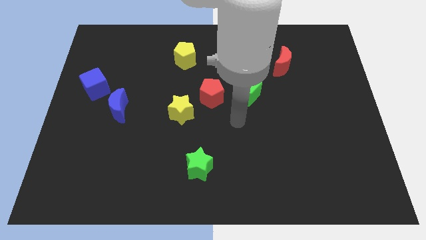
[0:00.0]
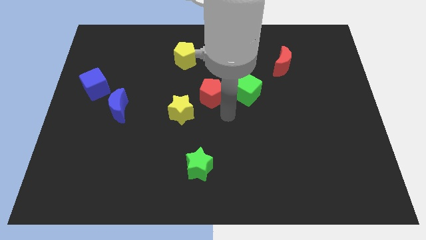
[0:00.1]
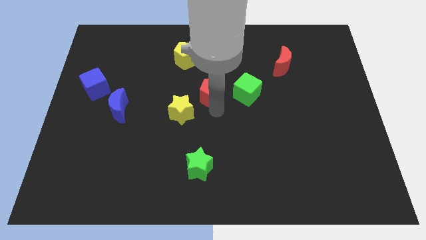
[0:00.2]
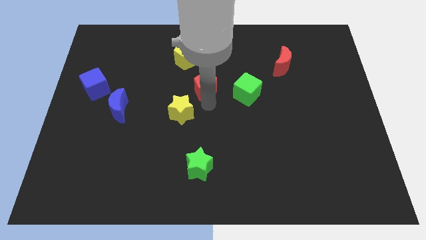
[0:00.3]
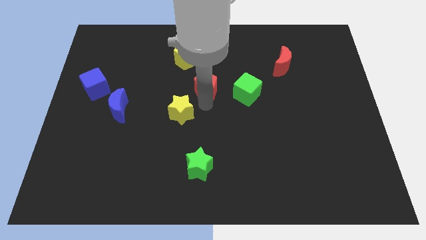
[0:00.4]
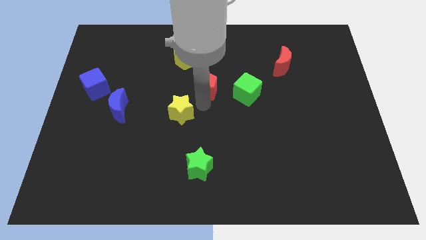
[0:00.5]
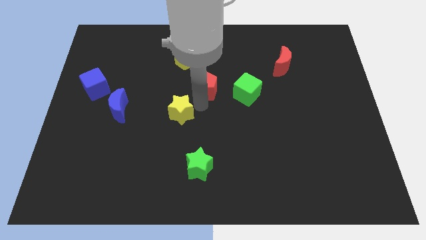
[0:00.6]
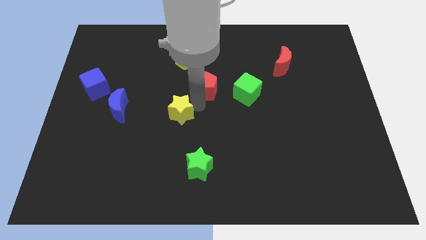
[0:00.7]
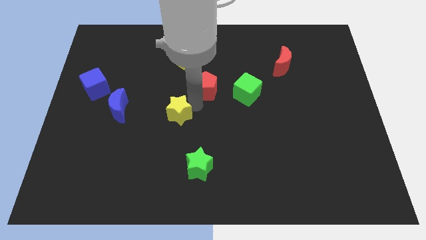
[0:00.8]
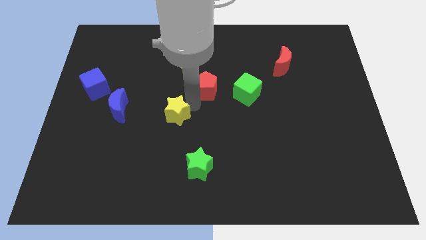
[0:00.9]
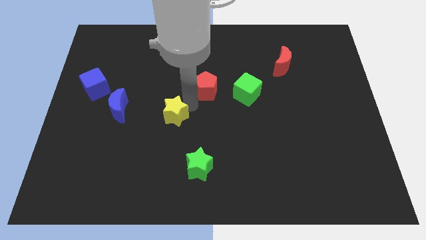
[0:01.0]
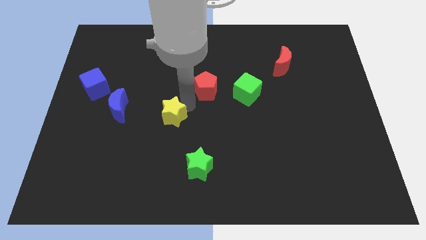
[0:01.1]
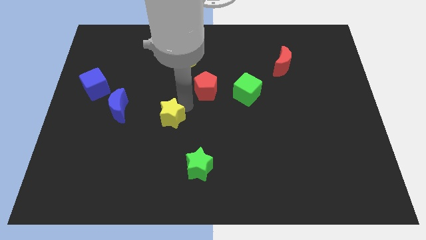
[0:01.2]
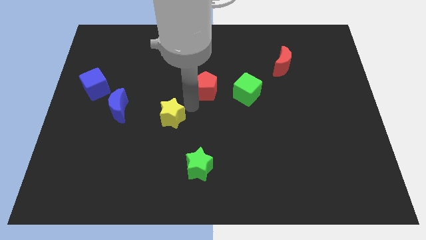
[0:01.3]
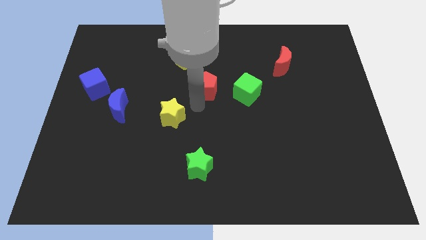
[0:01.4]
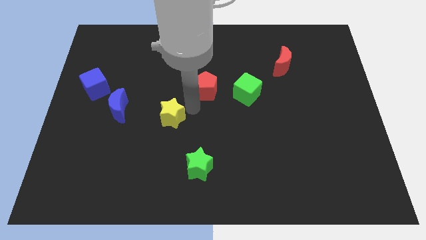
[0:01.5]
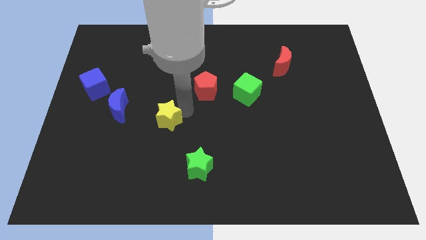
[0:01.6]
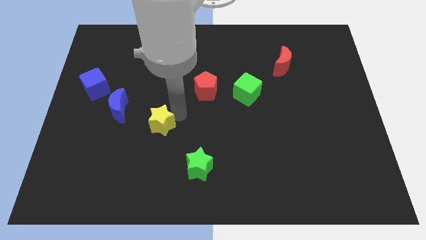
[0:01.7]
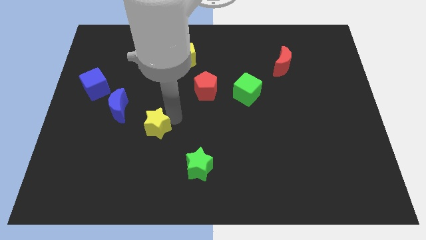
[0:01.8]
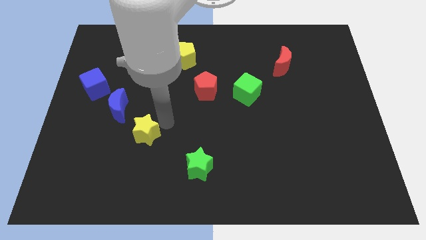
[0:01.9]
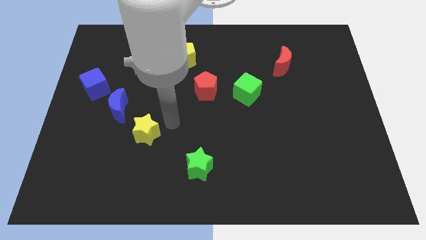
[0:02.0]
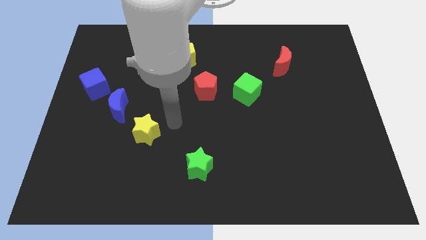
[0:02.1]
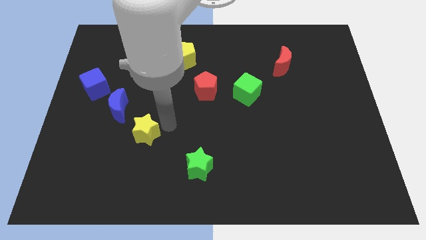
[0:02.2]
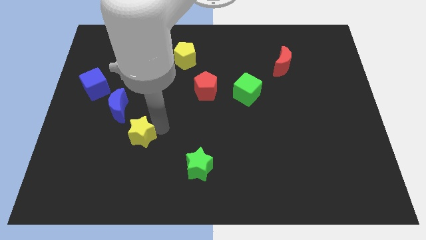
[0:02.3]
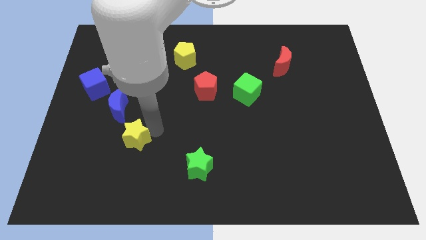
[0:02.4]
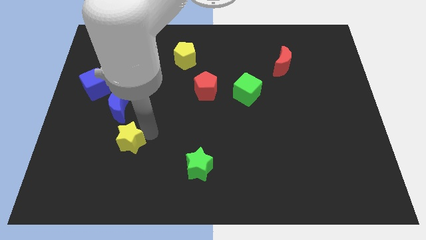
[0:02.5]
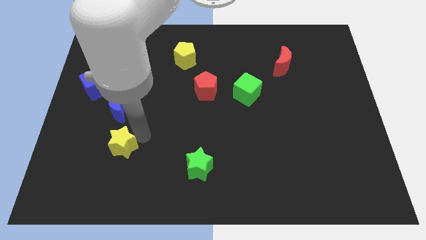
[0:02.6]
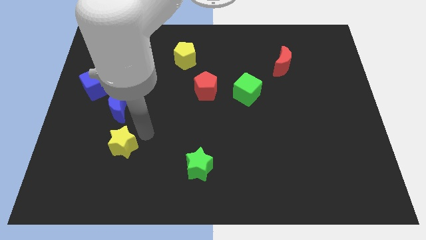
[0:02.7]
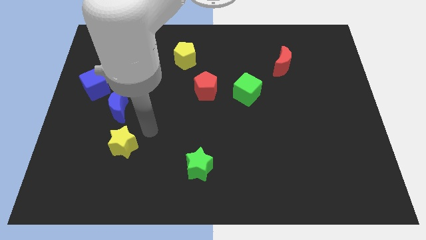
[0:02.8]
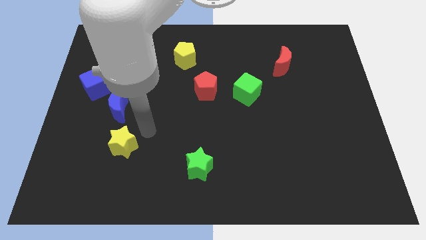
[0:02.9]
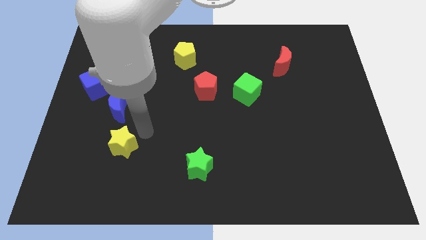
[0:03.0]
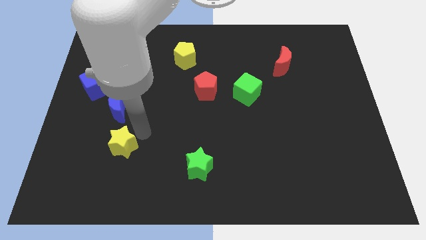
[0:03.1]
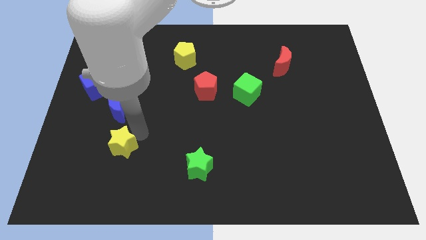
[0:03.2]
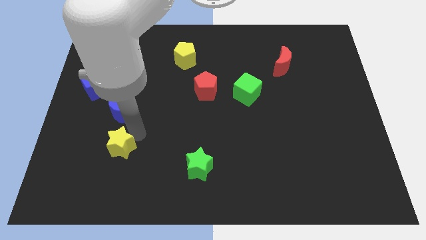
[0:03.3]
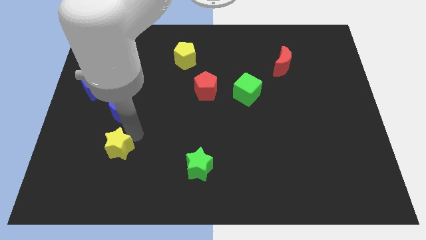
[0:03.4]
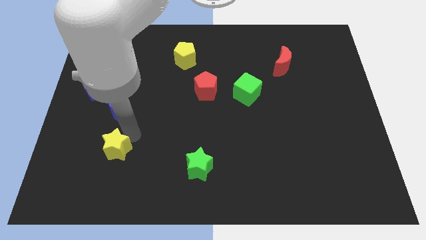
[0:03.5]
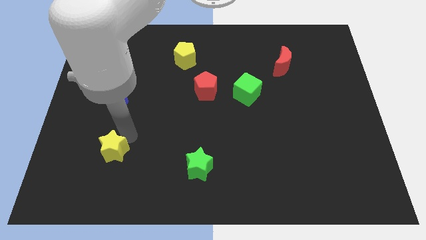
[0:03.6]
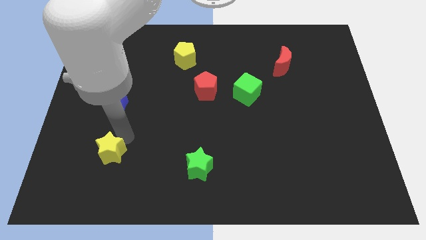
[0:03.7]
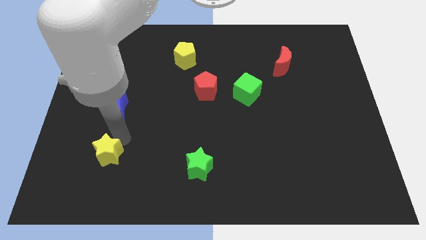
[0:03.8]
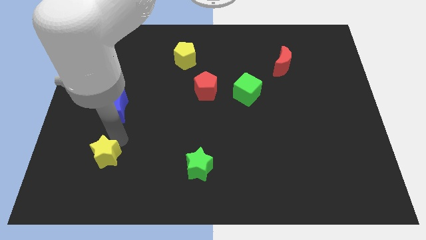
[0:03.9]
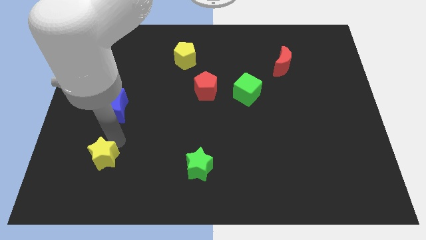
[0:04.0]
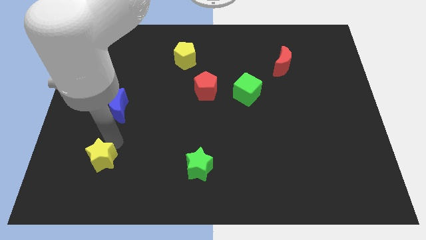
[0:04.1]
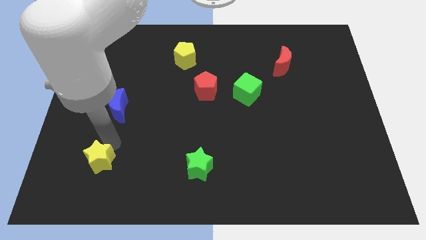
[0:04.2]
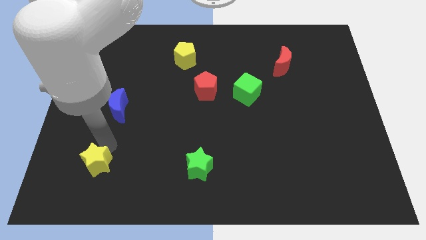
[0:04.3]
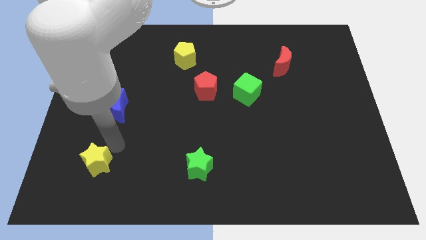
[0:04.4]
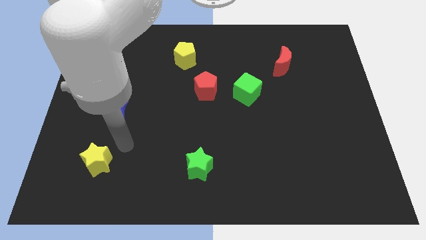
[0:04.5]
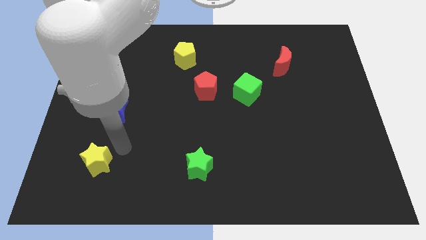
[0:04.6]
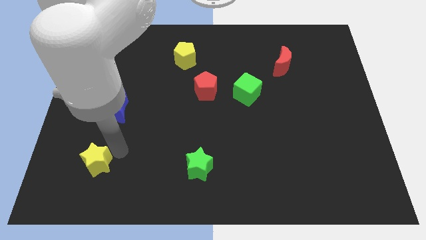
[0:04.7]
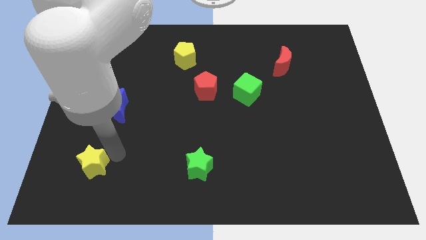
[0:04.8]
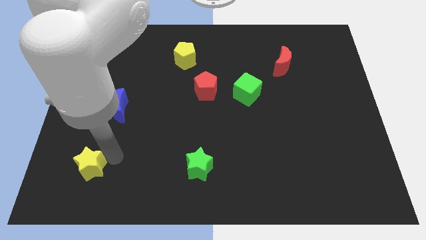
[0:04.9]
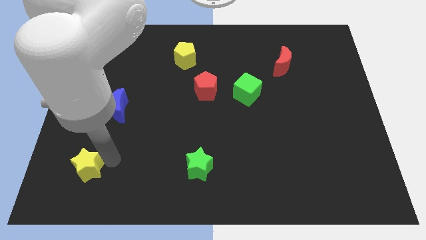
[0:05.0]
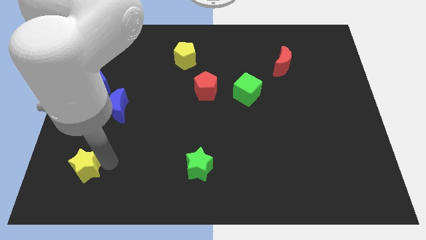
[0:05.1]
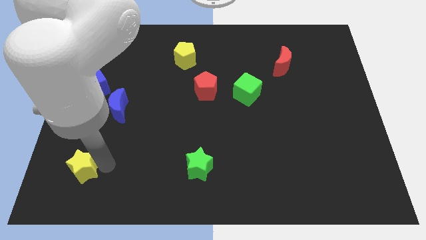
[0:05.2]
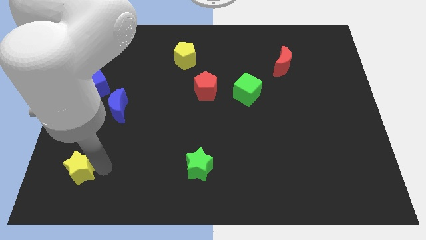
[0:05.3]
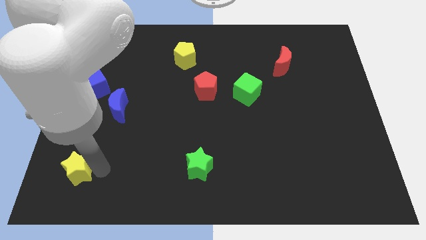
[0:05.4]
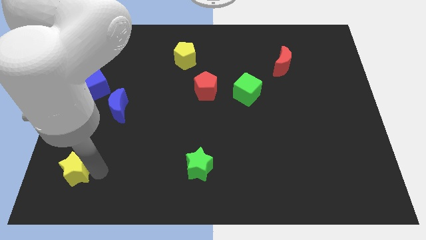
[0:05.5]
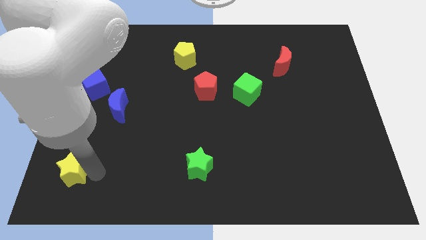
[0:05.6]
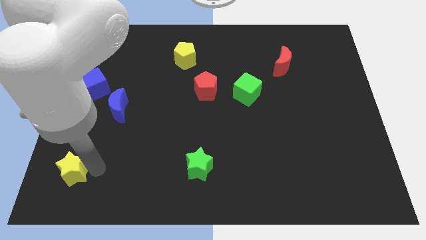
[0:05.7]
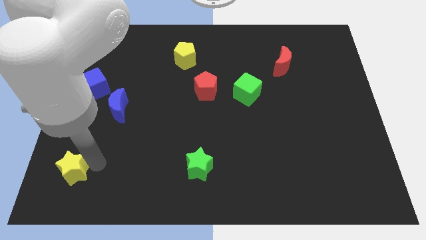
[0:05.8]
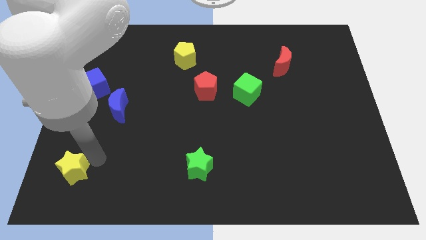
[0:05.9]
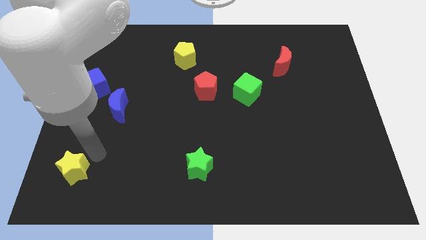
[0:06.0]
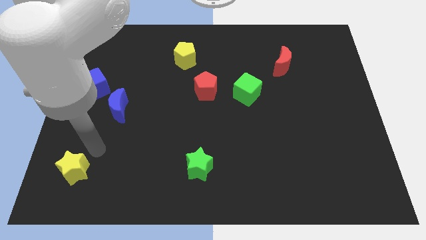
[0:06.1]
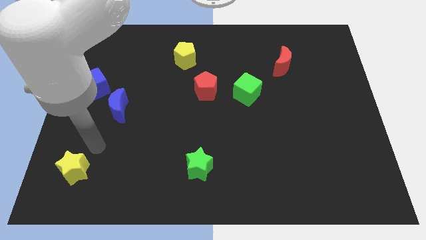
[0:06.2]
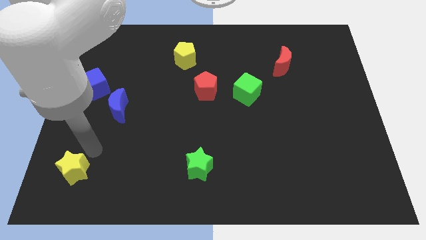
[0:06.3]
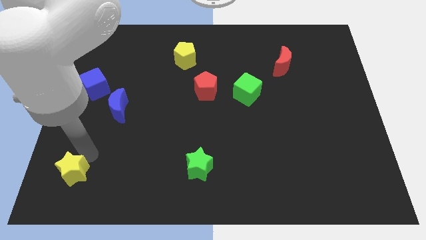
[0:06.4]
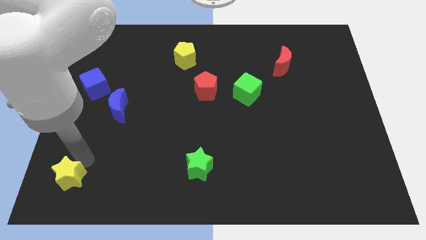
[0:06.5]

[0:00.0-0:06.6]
move the yellow star to the bottom left corner

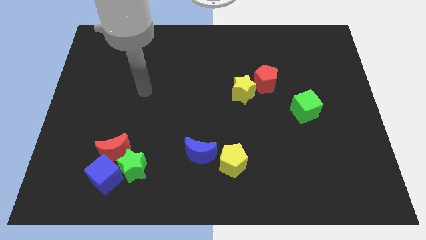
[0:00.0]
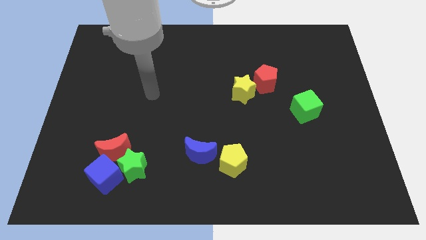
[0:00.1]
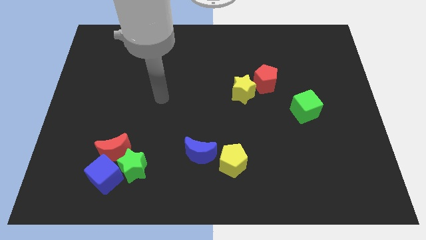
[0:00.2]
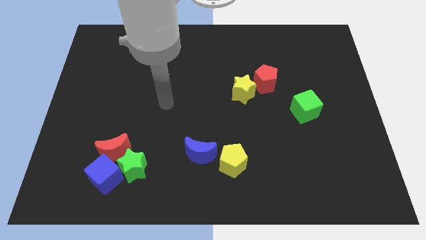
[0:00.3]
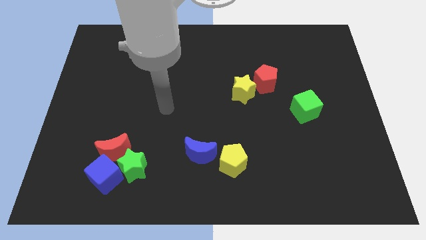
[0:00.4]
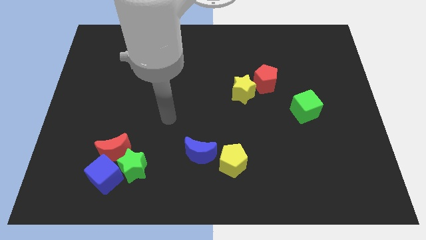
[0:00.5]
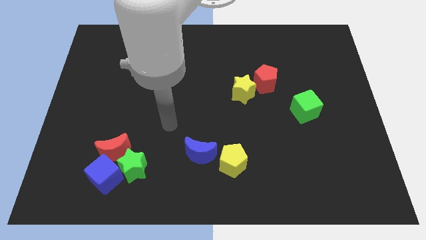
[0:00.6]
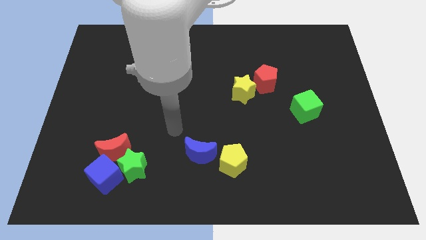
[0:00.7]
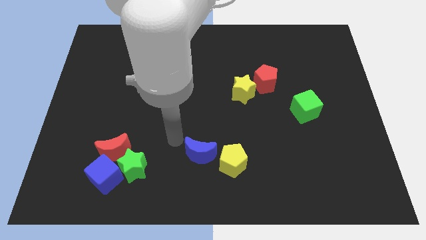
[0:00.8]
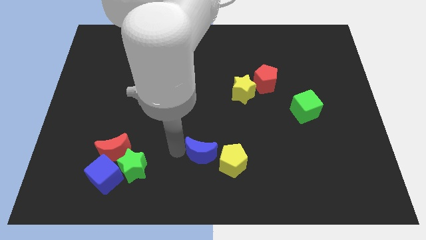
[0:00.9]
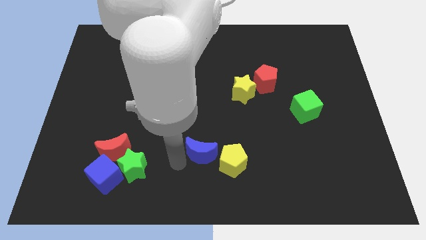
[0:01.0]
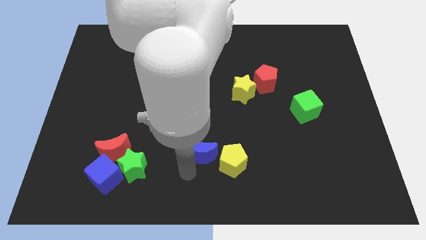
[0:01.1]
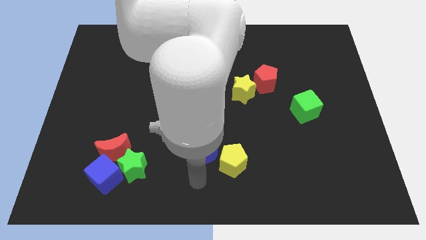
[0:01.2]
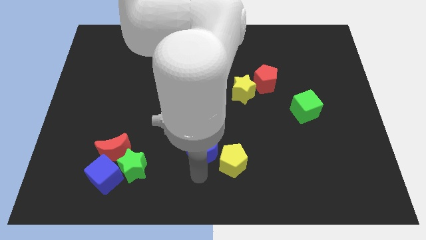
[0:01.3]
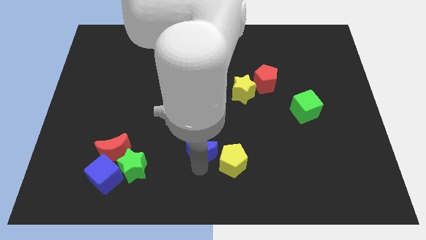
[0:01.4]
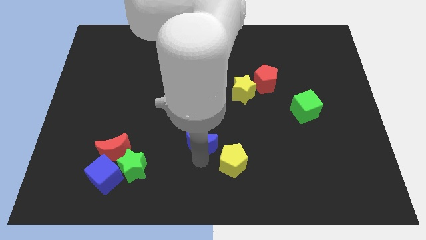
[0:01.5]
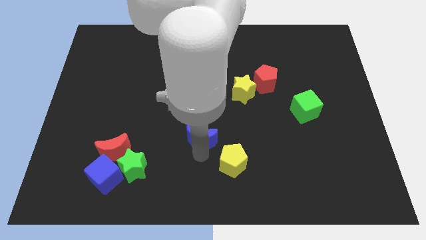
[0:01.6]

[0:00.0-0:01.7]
slide the blue moon to the middle
